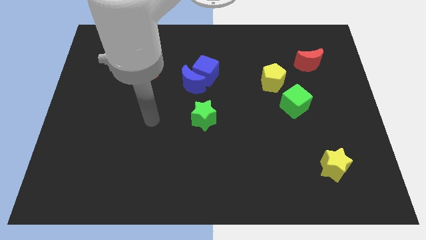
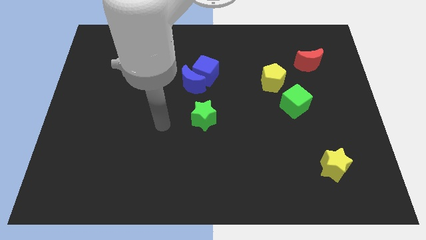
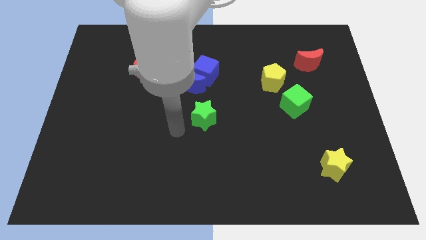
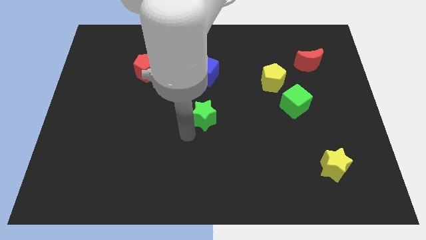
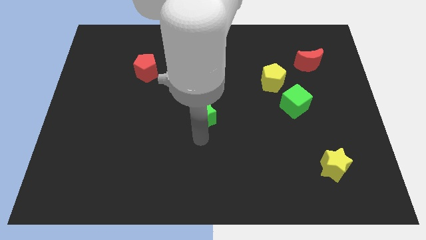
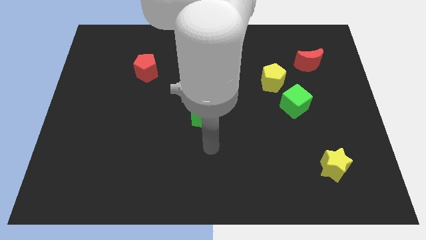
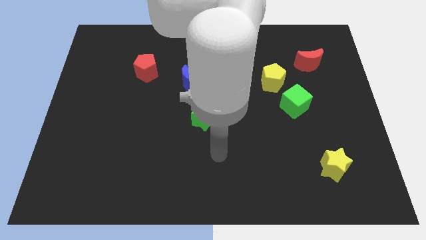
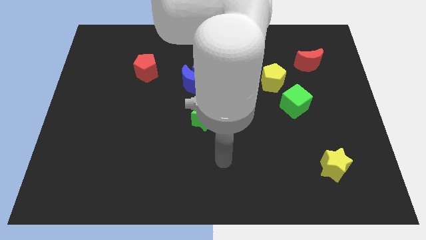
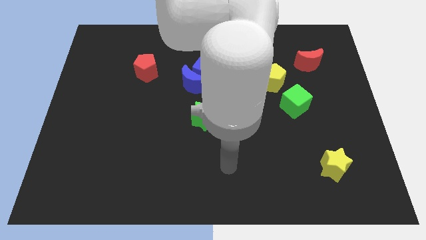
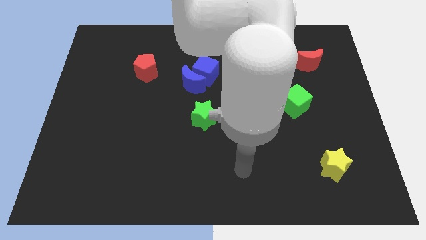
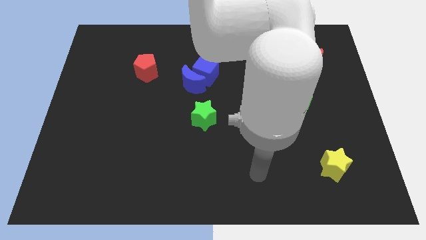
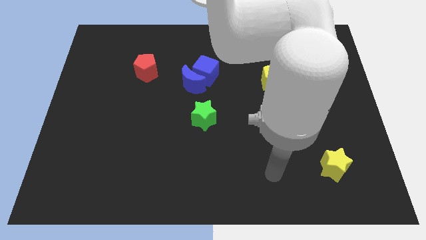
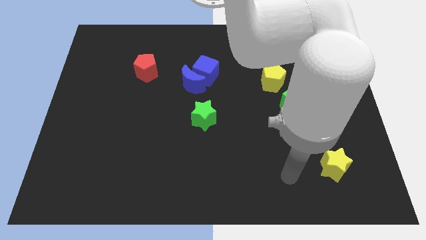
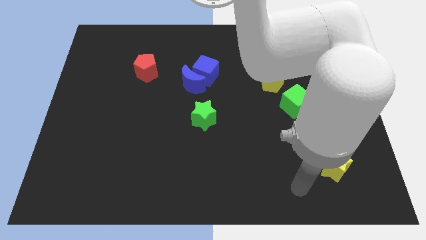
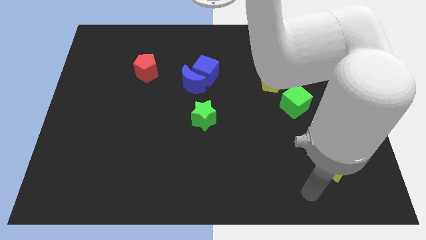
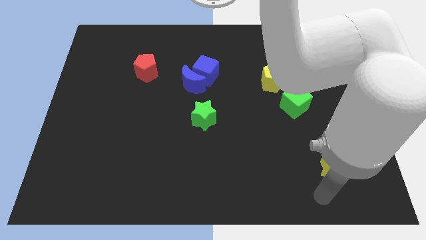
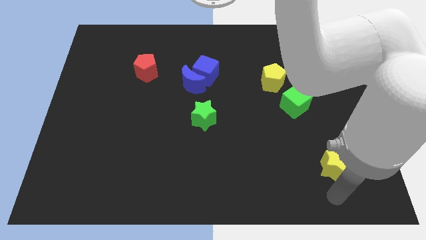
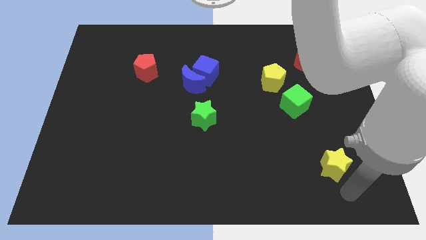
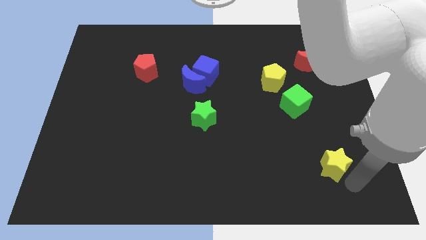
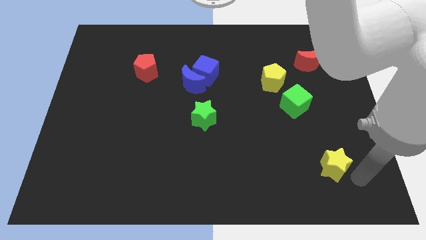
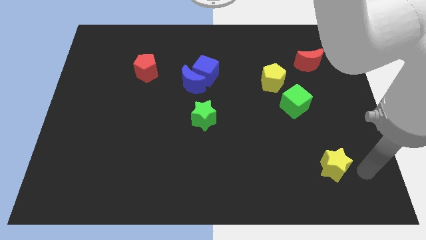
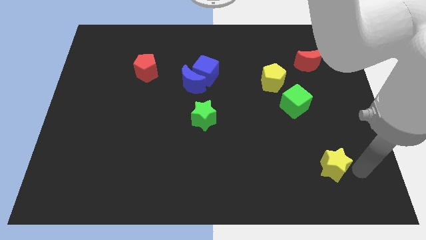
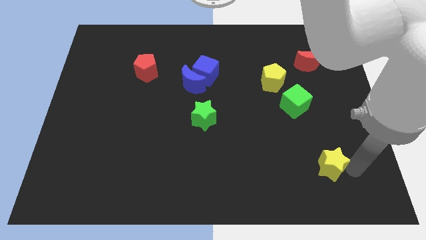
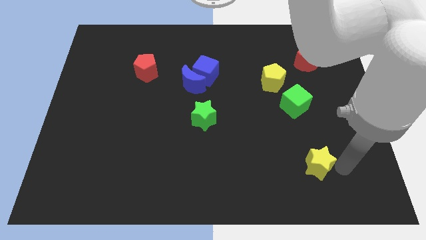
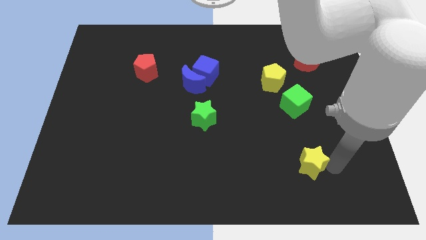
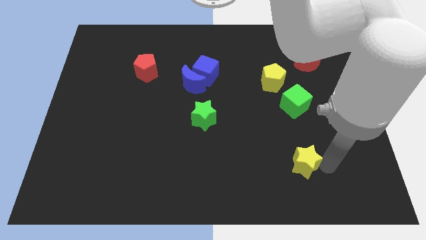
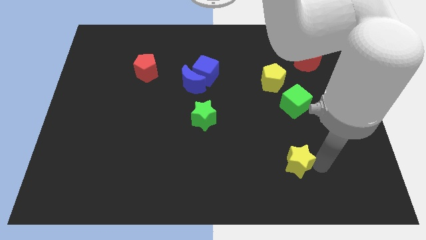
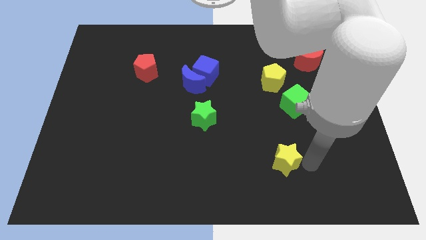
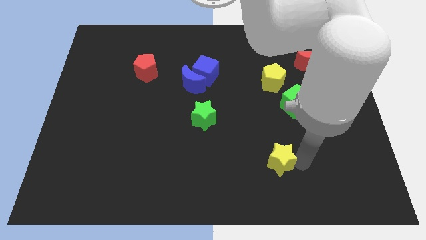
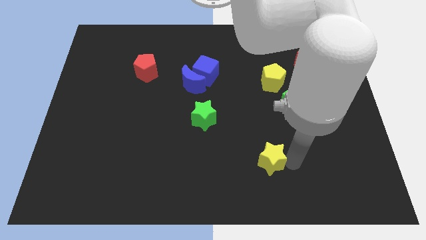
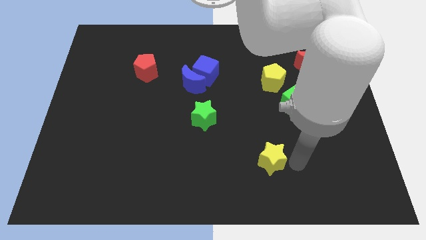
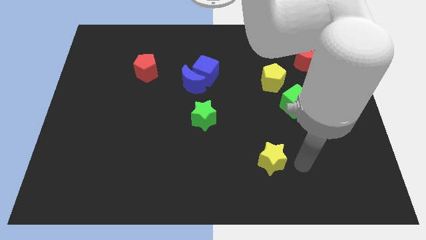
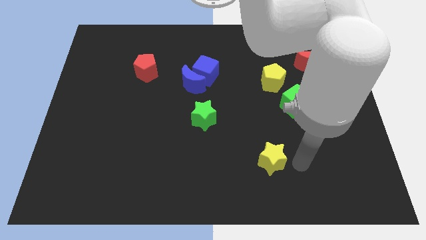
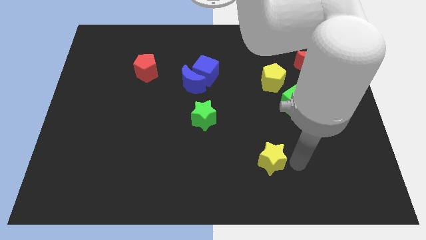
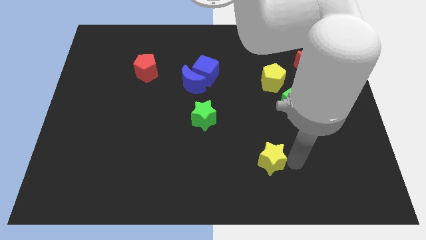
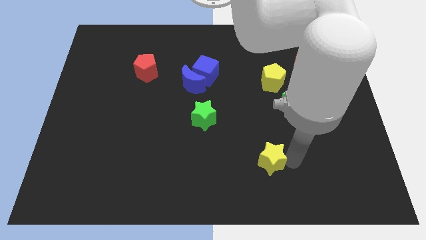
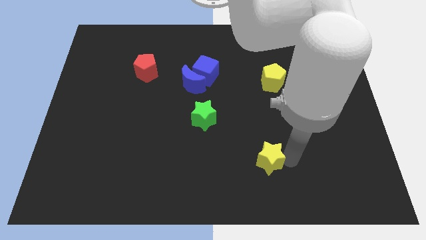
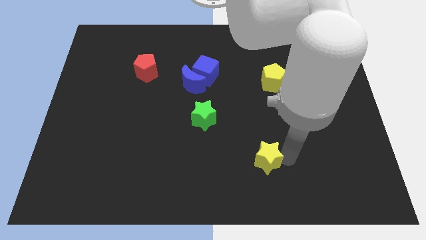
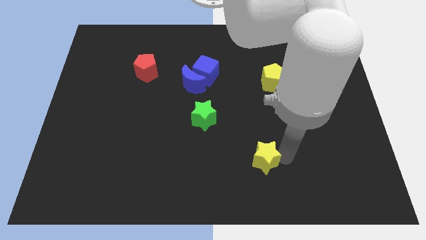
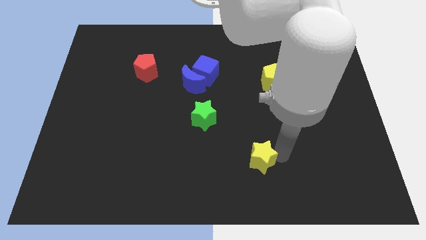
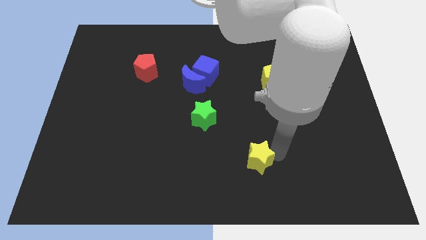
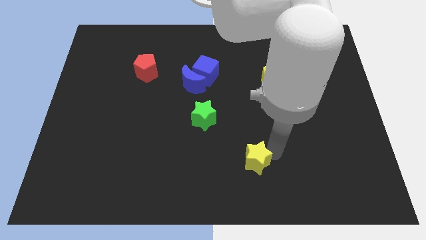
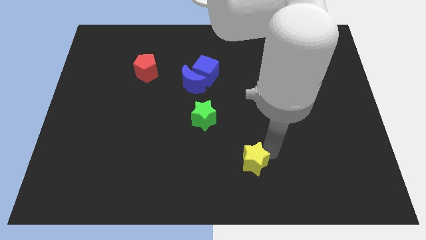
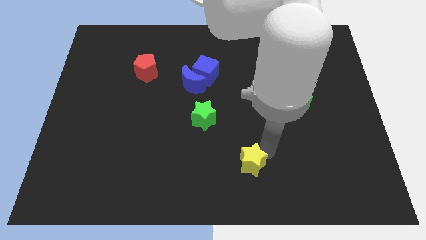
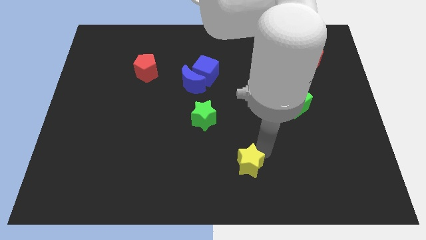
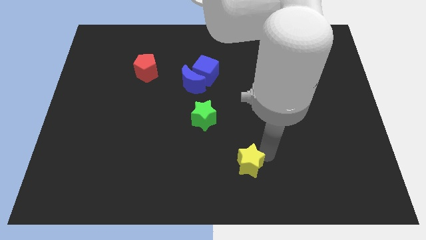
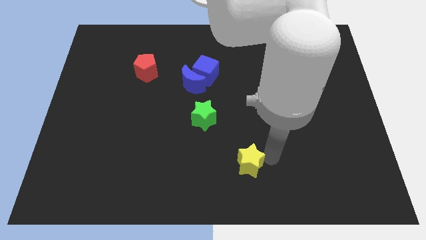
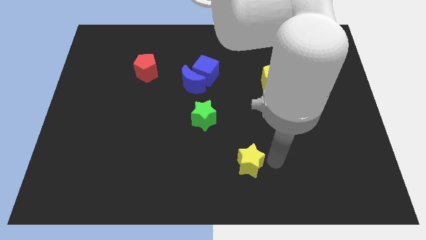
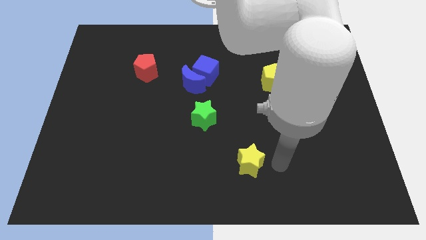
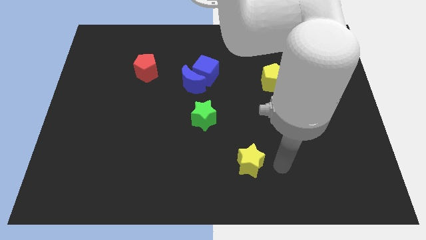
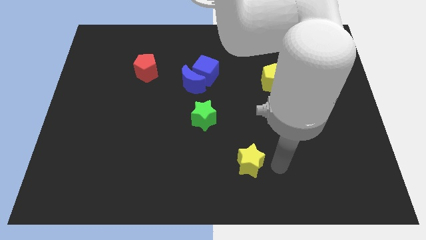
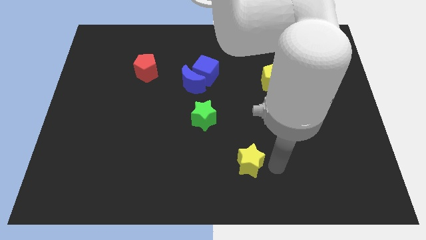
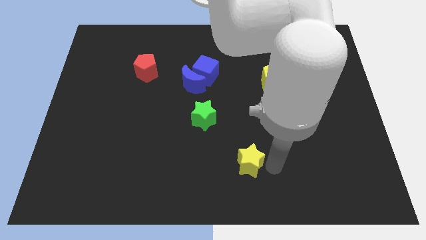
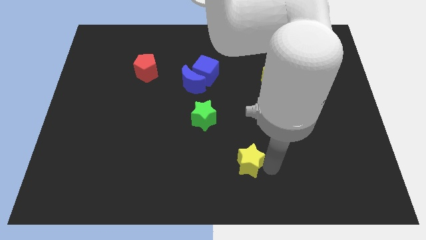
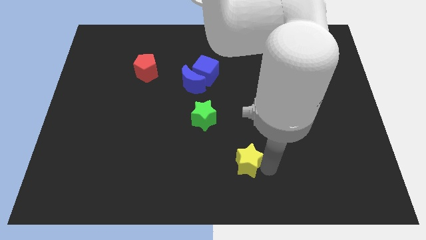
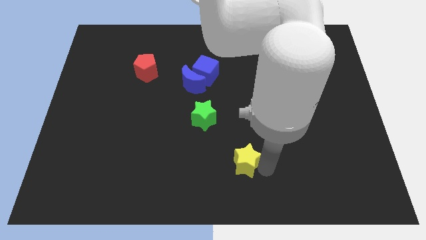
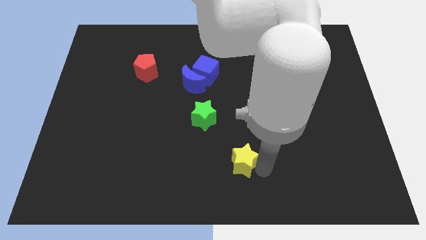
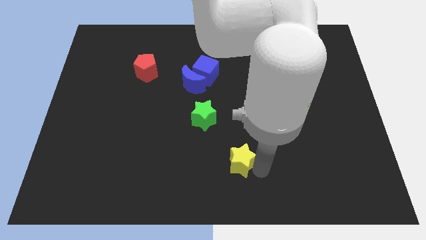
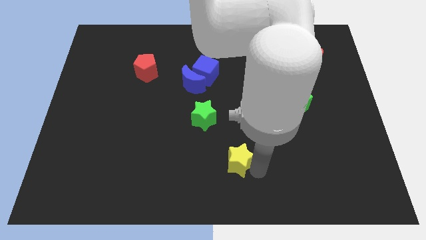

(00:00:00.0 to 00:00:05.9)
push the yellow star left

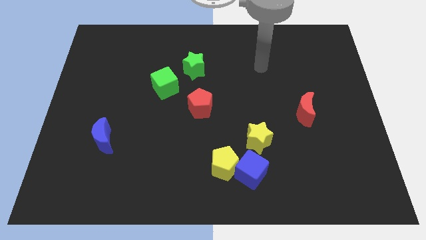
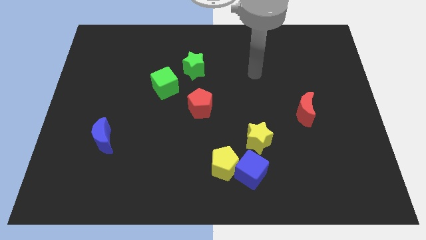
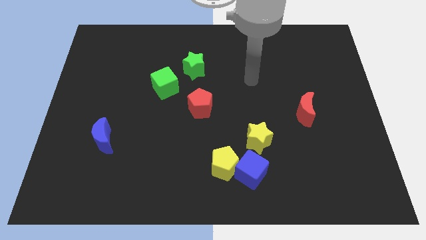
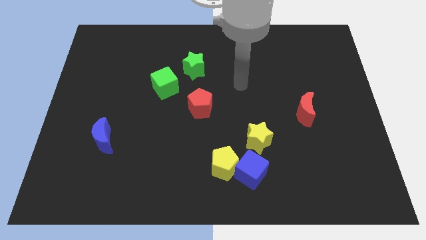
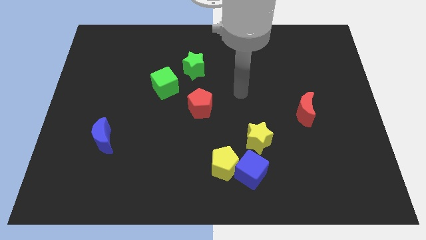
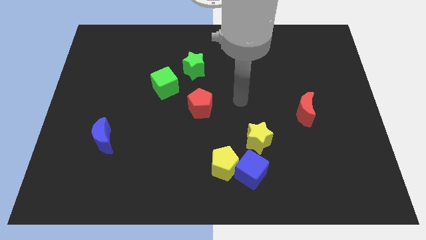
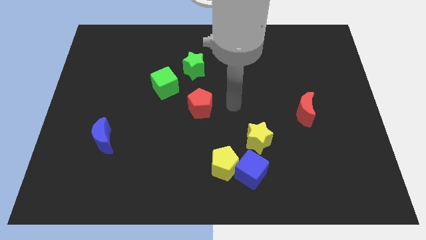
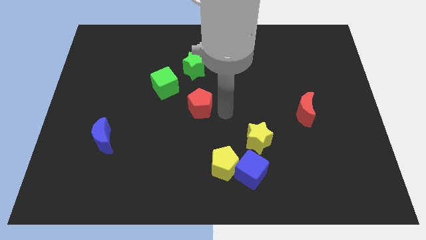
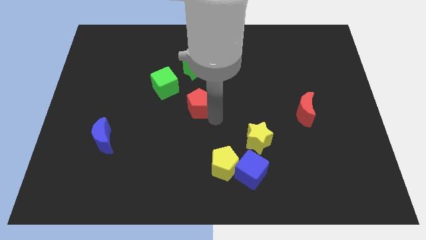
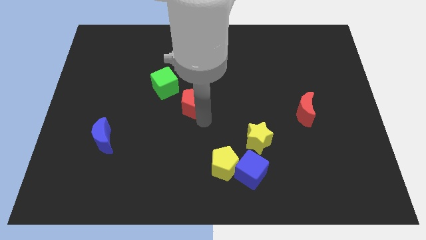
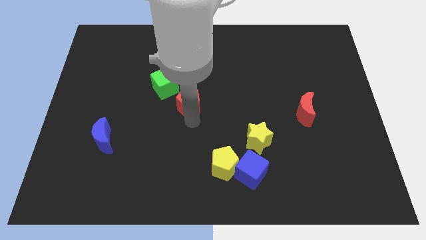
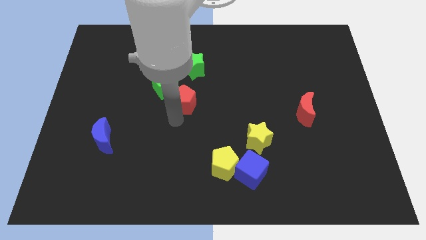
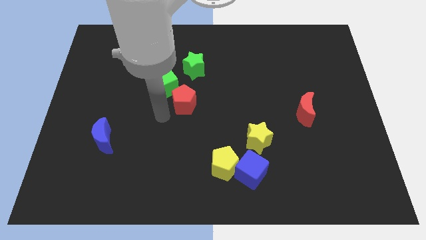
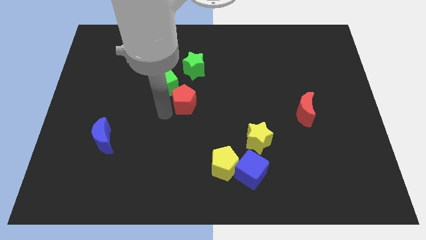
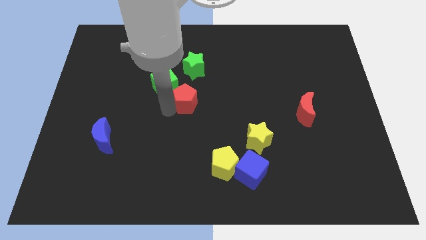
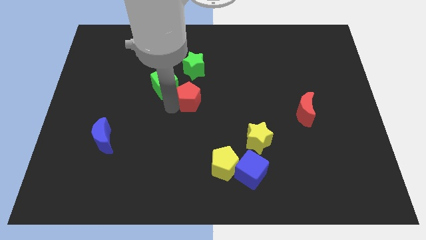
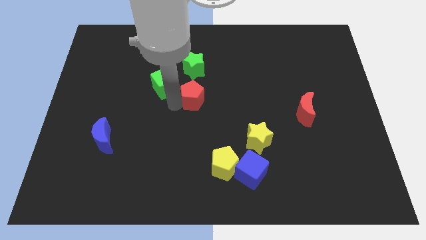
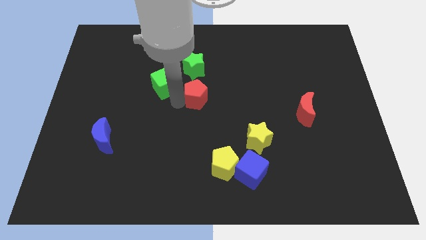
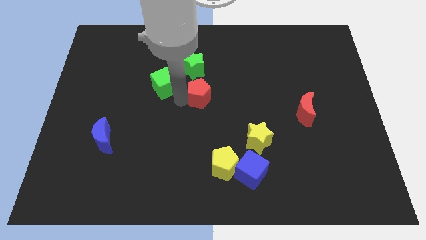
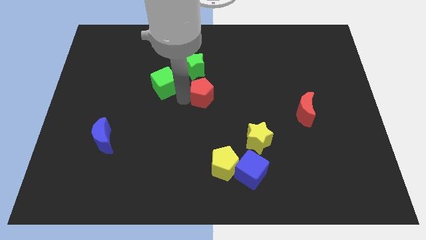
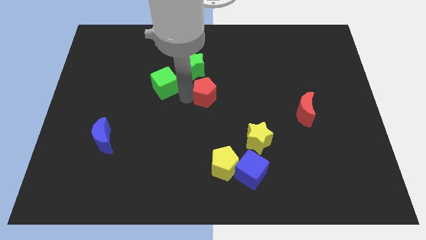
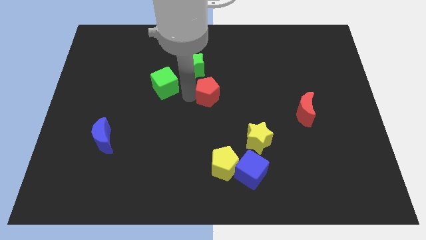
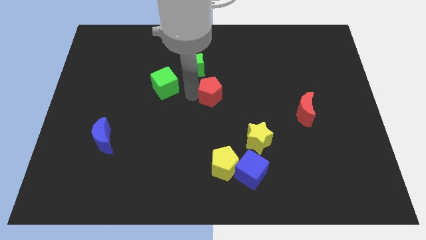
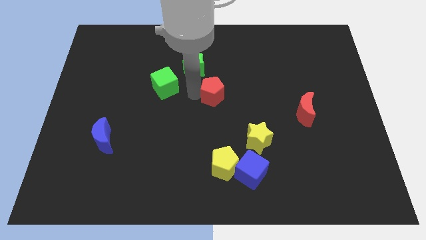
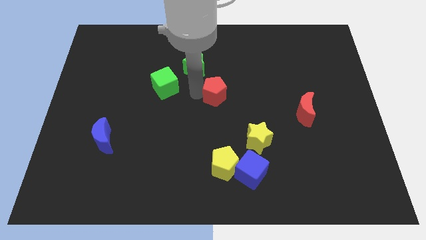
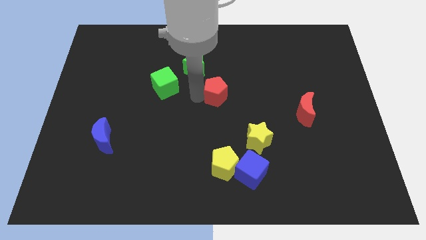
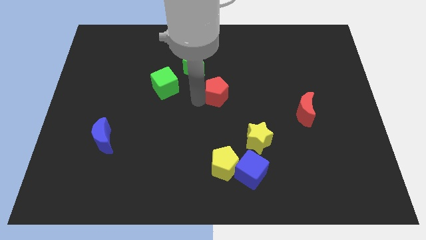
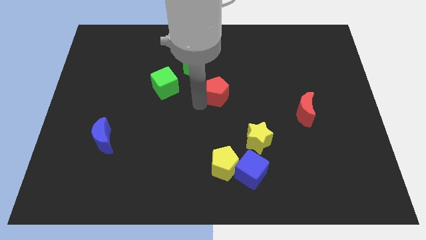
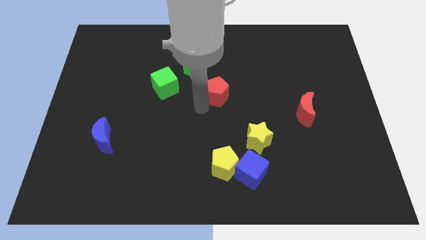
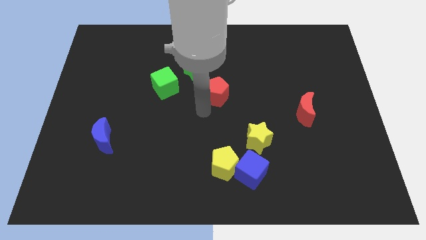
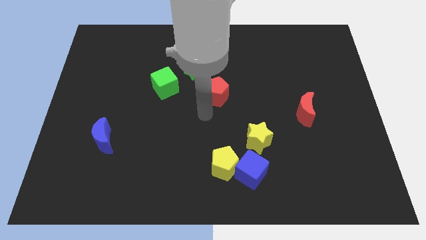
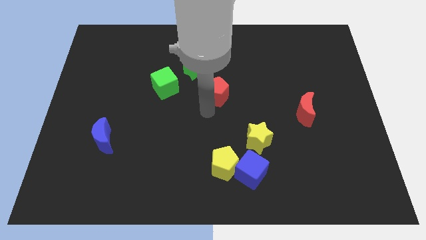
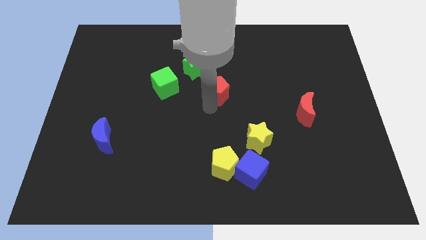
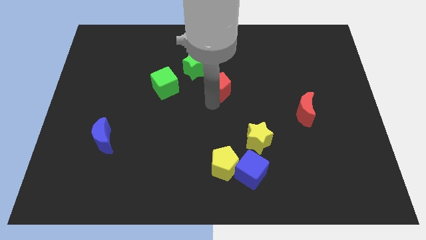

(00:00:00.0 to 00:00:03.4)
slightly move the red pentagon upwards and to the right diagonally
